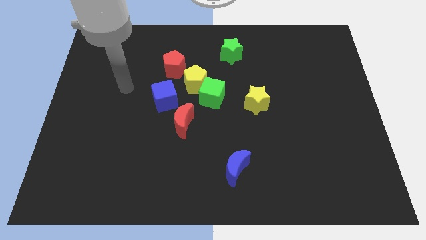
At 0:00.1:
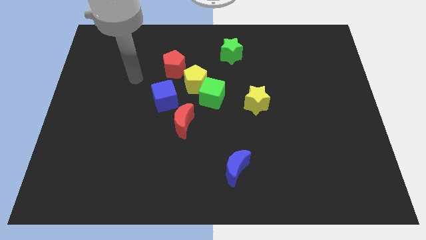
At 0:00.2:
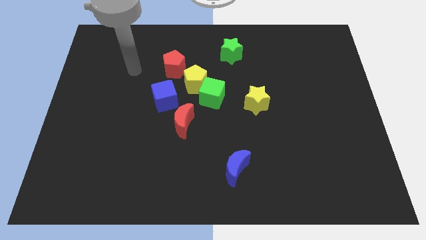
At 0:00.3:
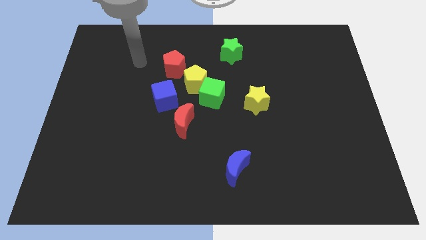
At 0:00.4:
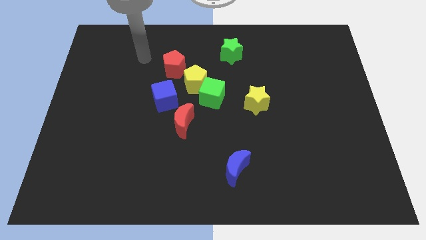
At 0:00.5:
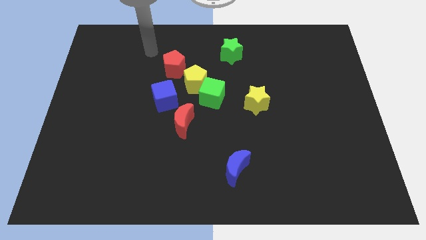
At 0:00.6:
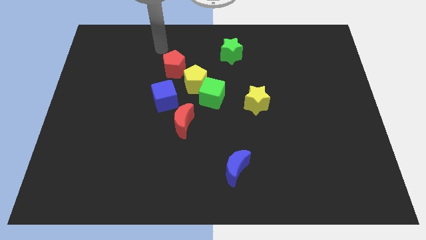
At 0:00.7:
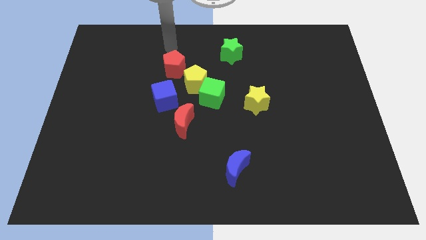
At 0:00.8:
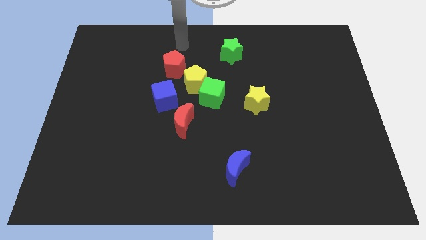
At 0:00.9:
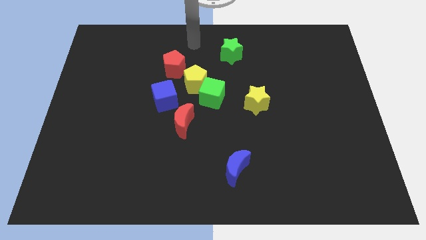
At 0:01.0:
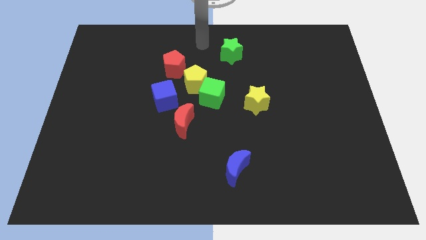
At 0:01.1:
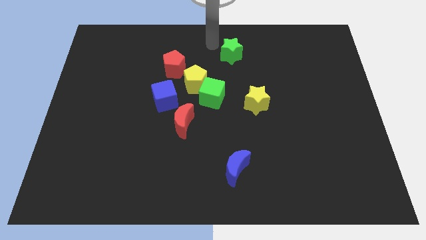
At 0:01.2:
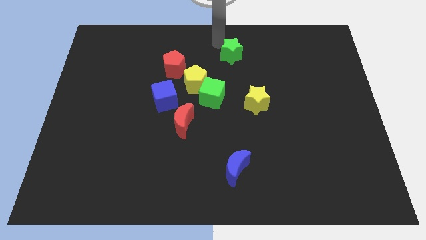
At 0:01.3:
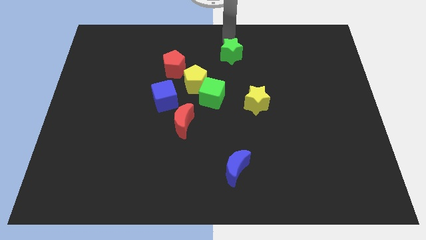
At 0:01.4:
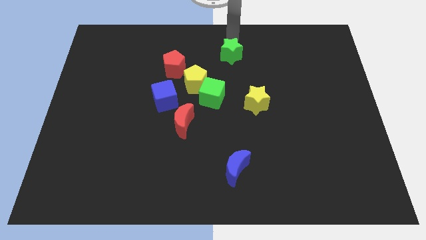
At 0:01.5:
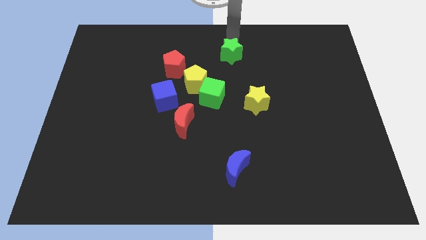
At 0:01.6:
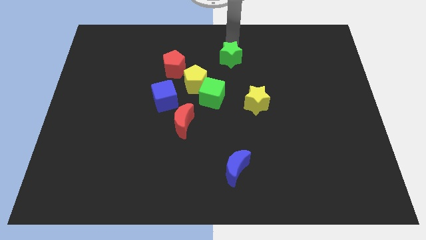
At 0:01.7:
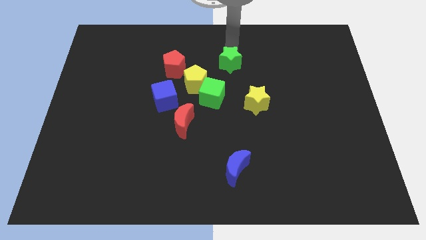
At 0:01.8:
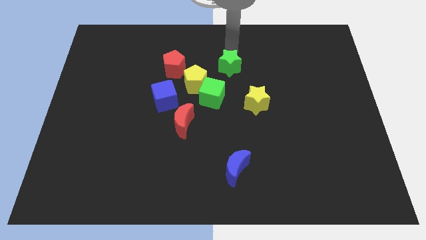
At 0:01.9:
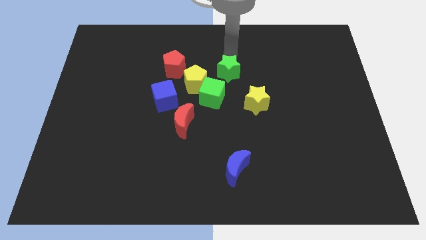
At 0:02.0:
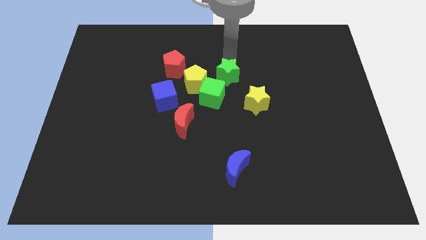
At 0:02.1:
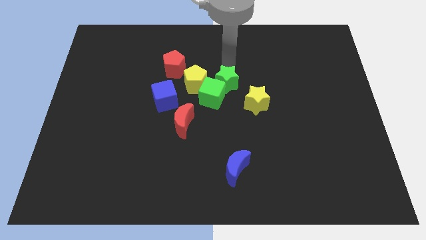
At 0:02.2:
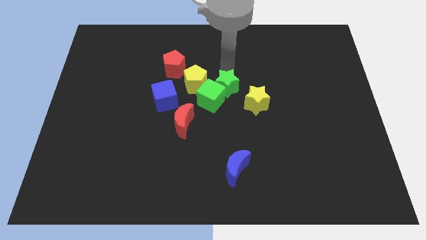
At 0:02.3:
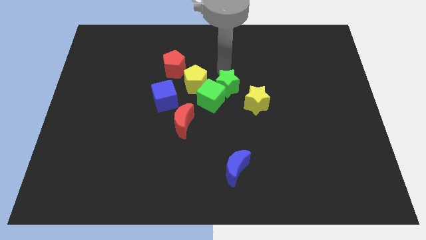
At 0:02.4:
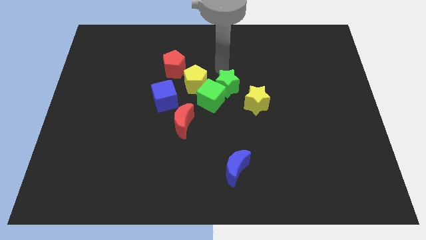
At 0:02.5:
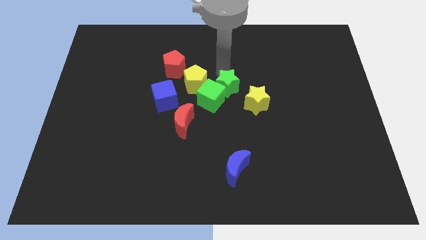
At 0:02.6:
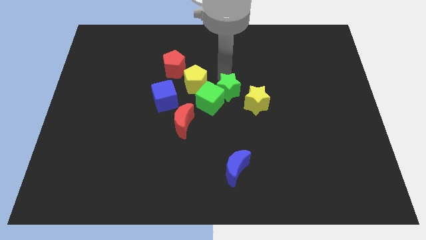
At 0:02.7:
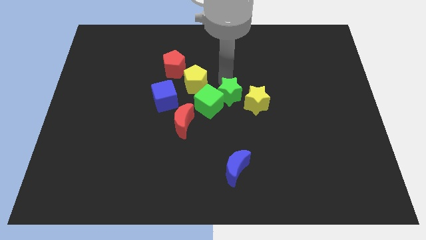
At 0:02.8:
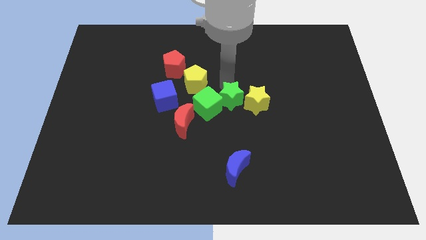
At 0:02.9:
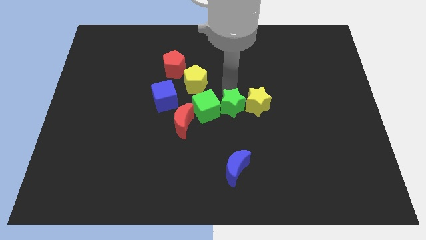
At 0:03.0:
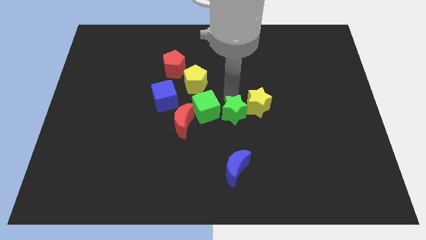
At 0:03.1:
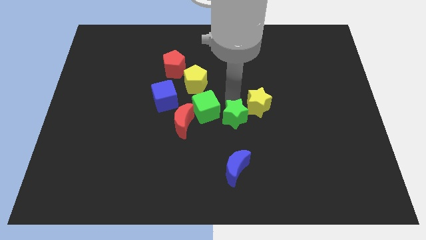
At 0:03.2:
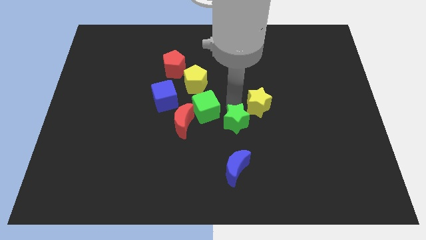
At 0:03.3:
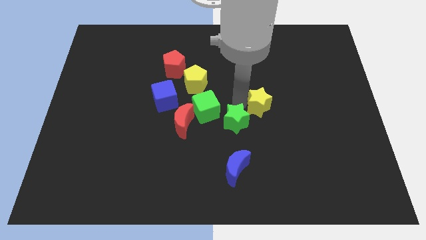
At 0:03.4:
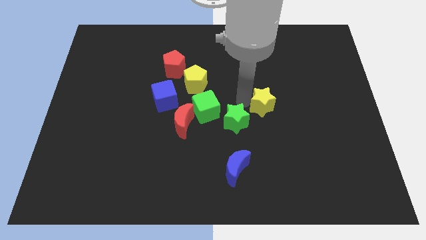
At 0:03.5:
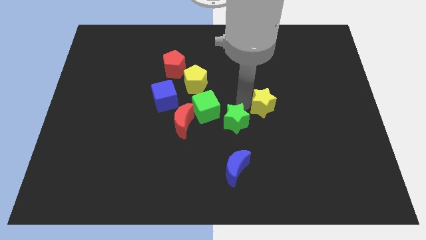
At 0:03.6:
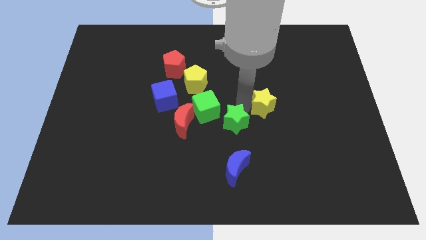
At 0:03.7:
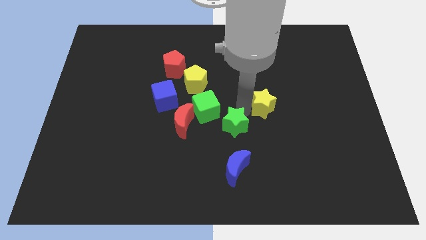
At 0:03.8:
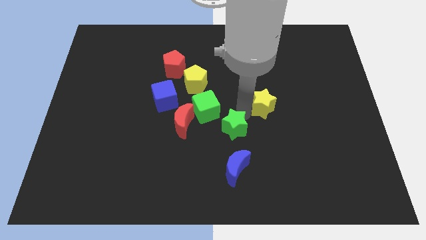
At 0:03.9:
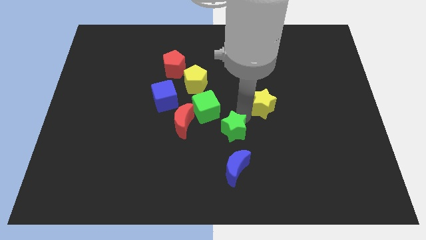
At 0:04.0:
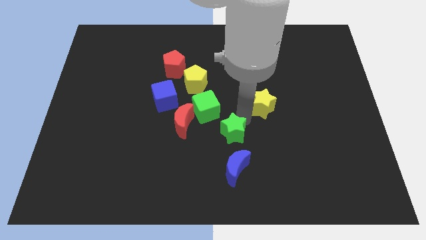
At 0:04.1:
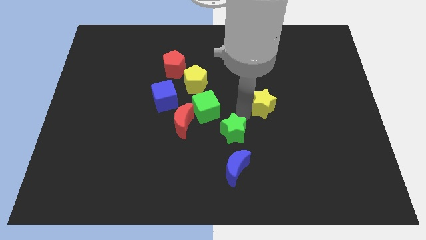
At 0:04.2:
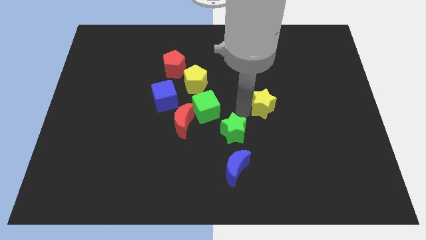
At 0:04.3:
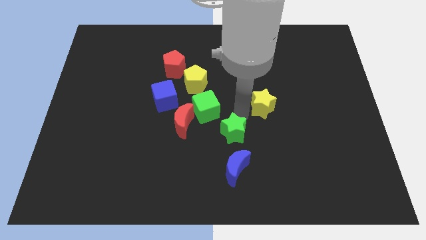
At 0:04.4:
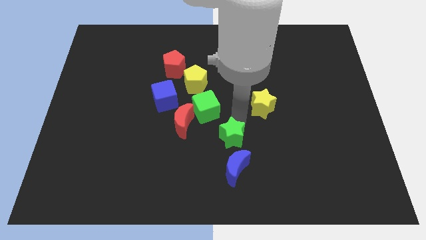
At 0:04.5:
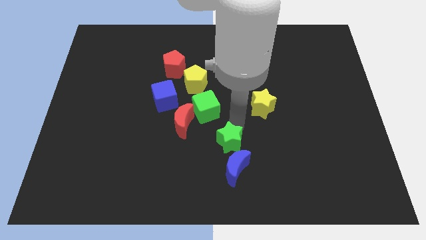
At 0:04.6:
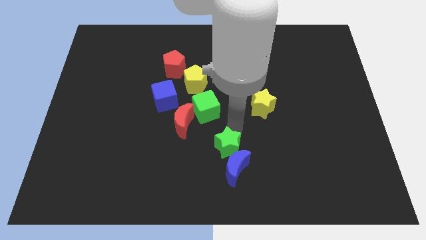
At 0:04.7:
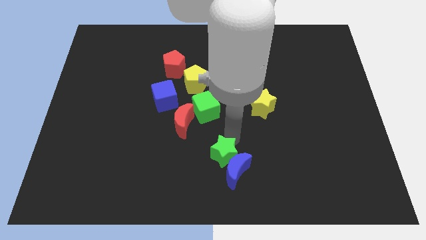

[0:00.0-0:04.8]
push the green star to the bottom

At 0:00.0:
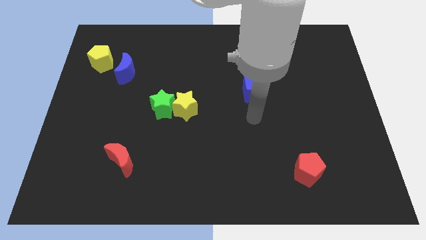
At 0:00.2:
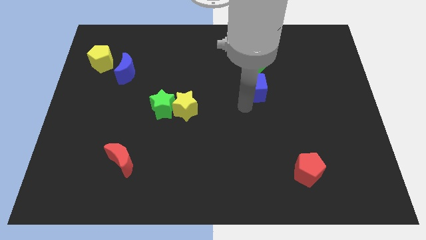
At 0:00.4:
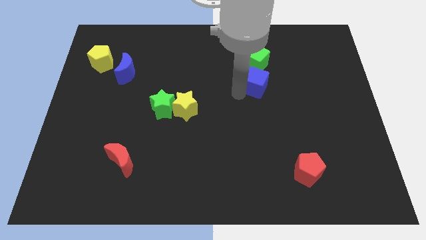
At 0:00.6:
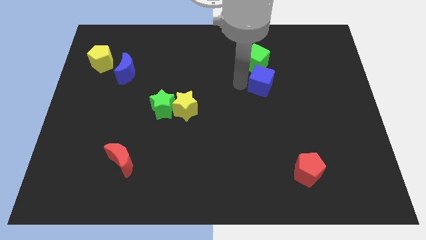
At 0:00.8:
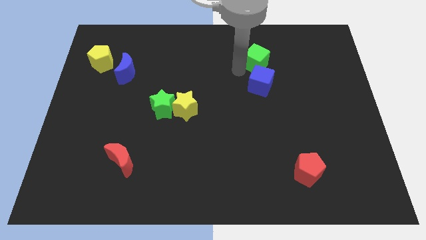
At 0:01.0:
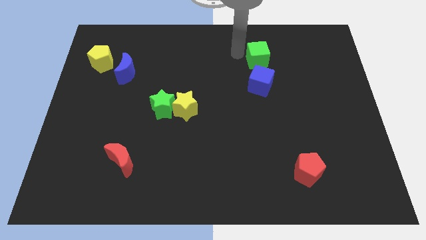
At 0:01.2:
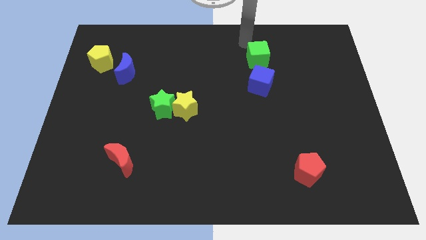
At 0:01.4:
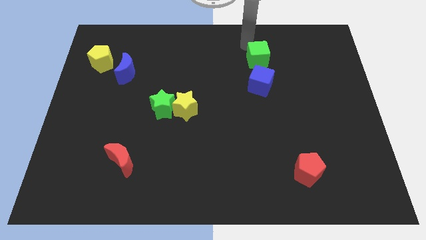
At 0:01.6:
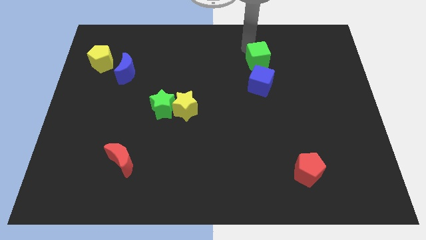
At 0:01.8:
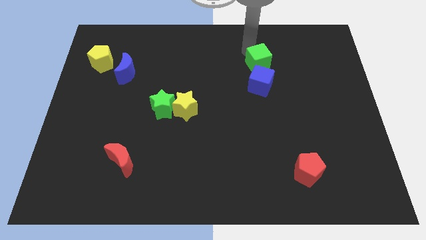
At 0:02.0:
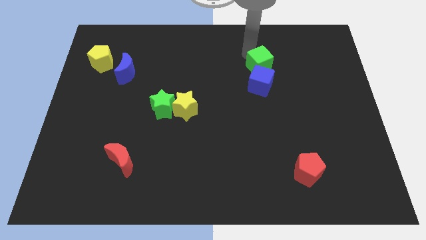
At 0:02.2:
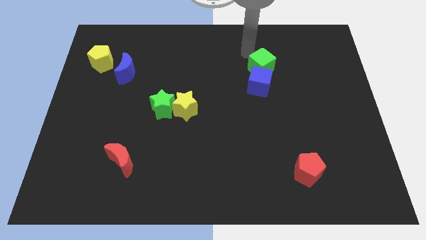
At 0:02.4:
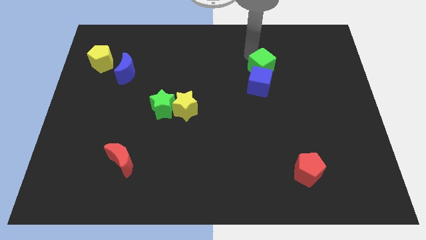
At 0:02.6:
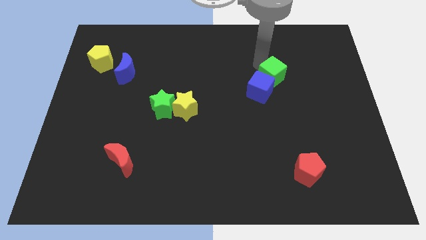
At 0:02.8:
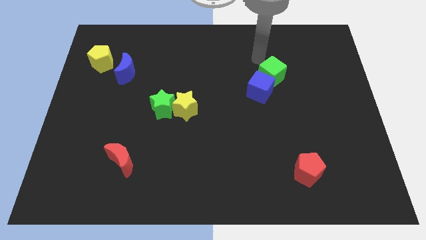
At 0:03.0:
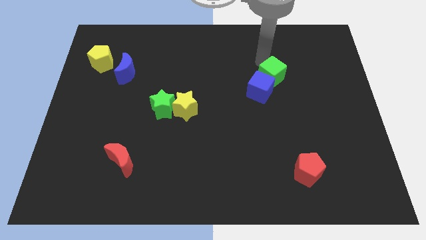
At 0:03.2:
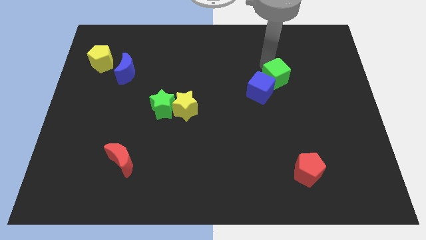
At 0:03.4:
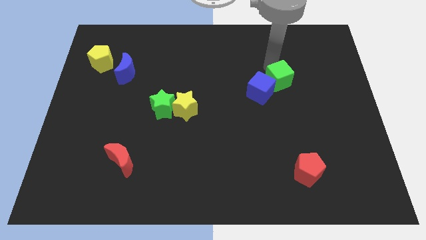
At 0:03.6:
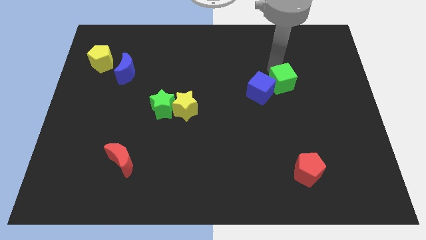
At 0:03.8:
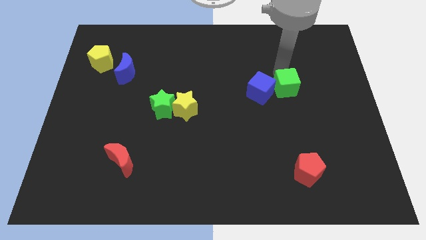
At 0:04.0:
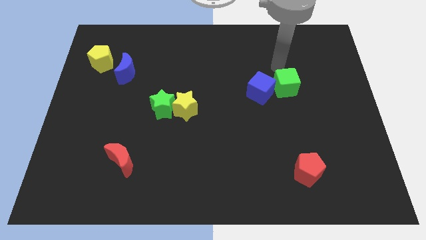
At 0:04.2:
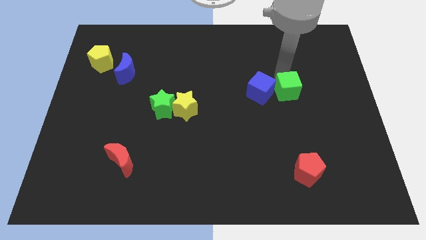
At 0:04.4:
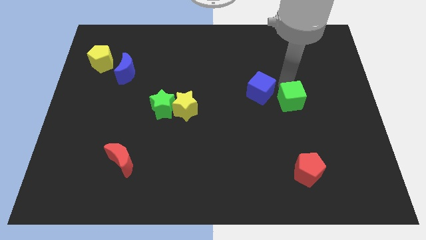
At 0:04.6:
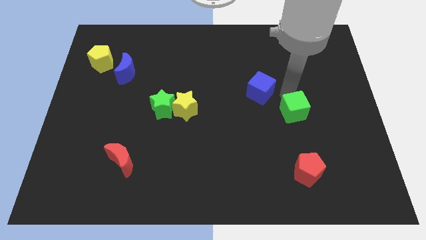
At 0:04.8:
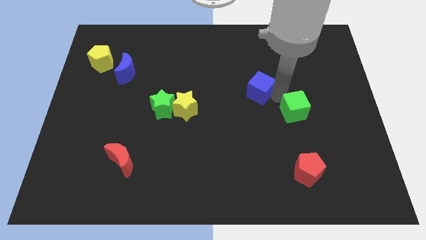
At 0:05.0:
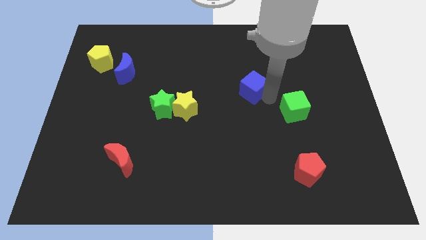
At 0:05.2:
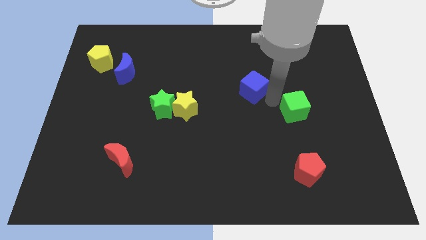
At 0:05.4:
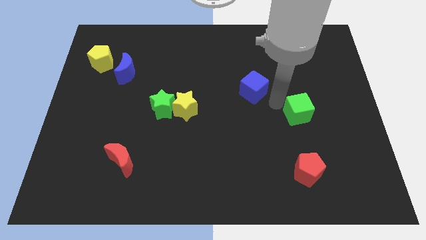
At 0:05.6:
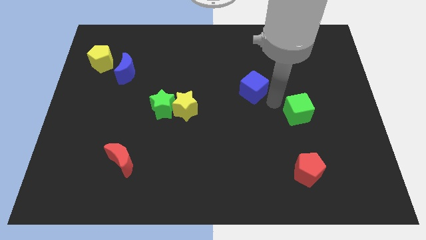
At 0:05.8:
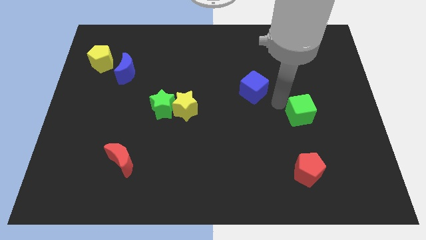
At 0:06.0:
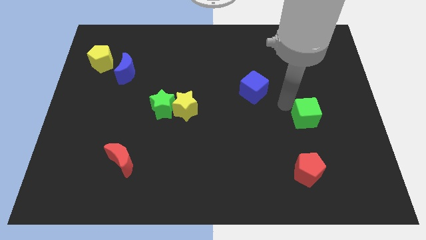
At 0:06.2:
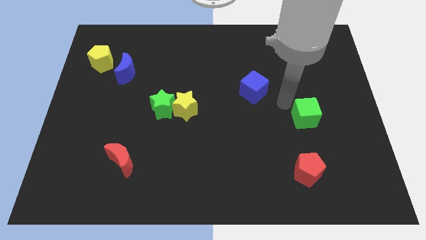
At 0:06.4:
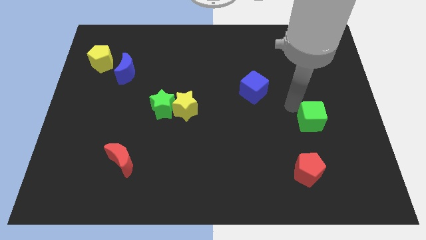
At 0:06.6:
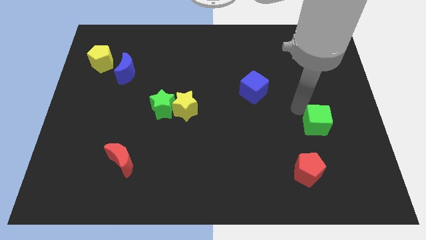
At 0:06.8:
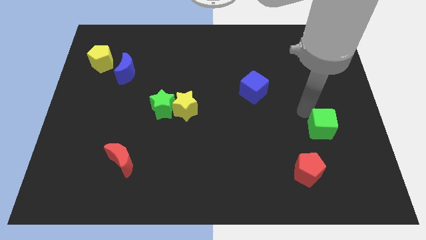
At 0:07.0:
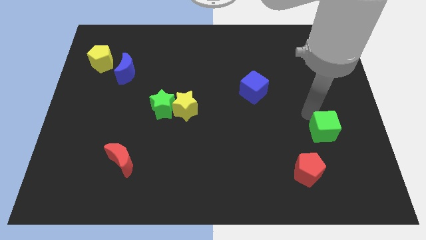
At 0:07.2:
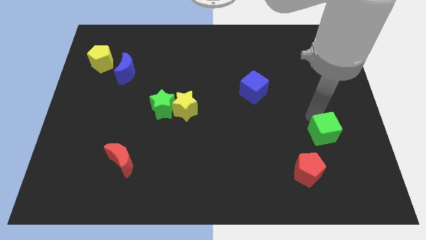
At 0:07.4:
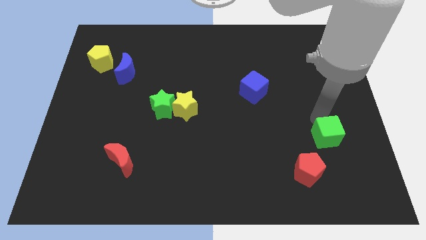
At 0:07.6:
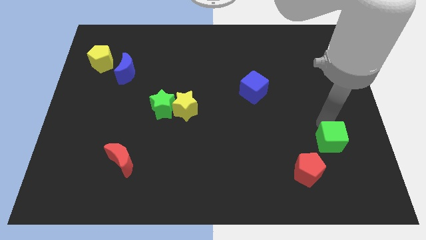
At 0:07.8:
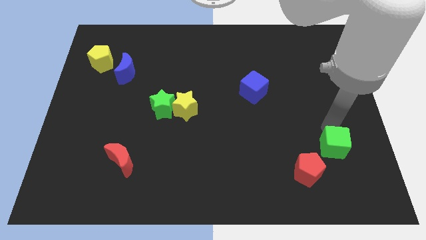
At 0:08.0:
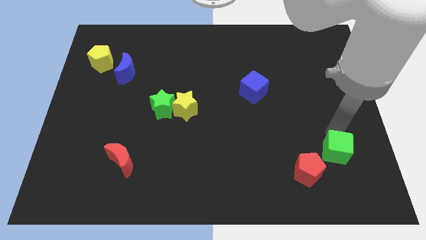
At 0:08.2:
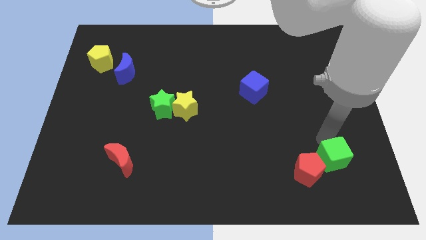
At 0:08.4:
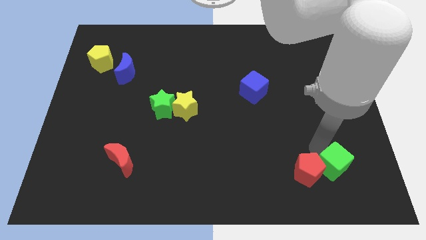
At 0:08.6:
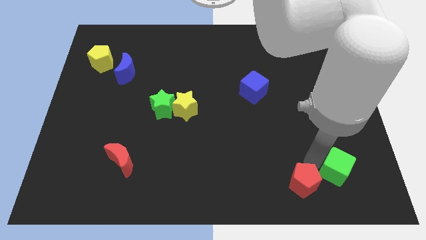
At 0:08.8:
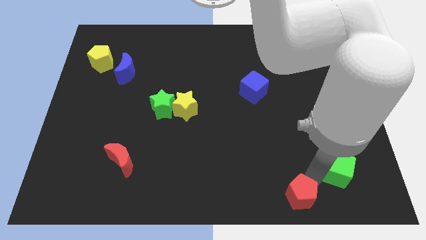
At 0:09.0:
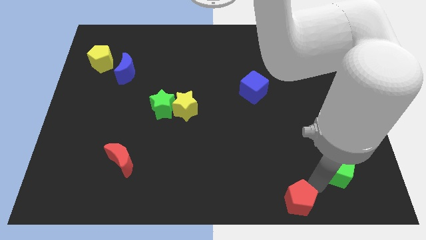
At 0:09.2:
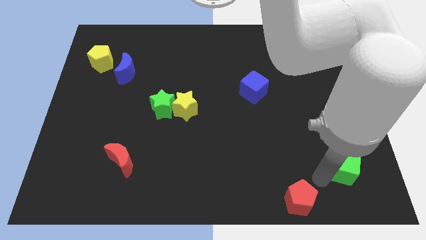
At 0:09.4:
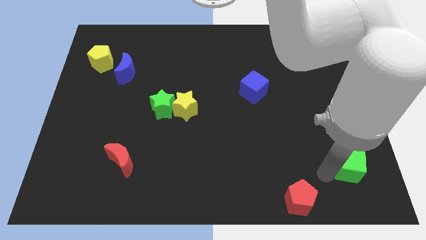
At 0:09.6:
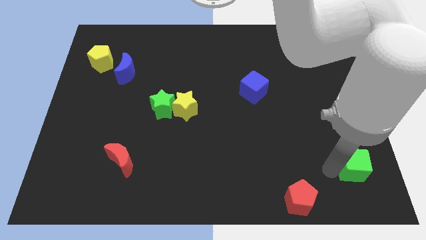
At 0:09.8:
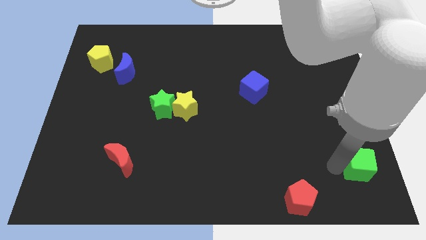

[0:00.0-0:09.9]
push the green cube to the bottom right corner
